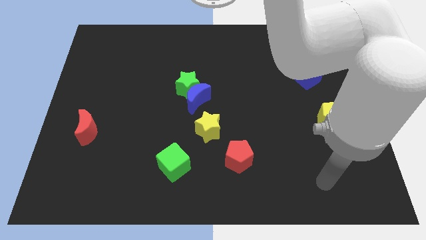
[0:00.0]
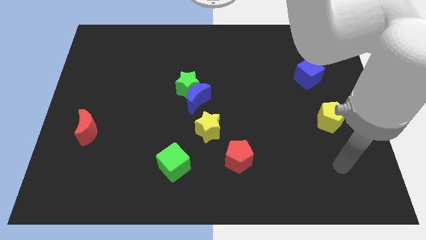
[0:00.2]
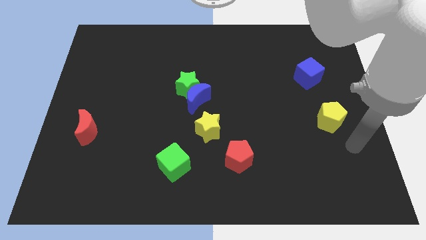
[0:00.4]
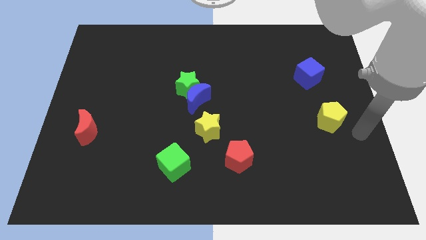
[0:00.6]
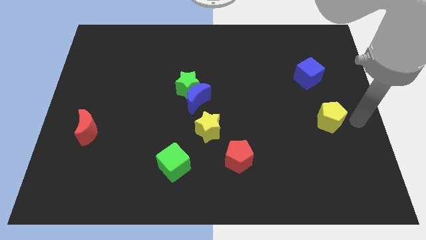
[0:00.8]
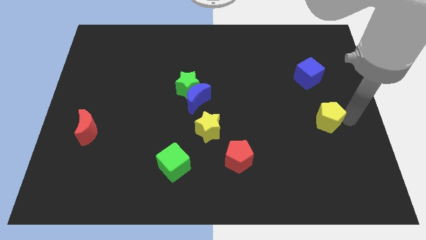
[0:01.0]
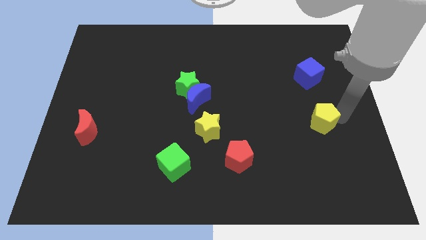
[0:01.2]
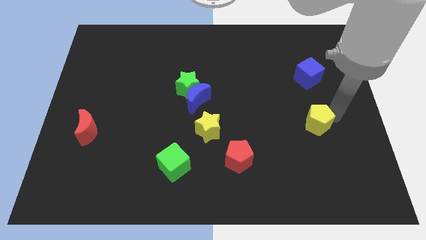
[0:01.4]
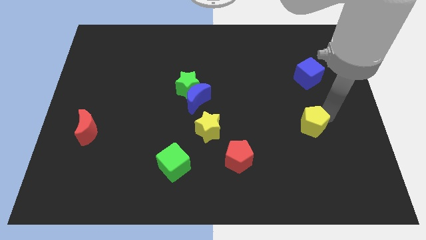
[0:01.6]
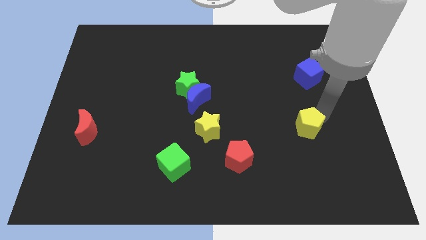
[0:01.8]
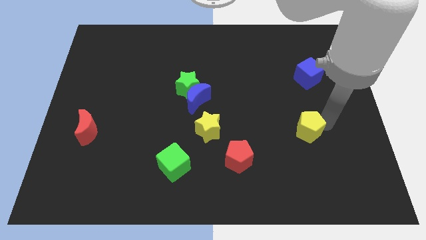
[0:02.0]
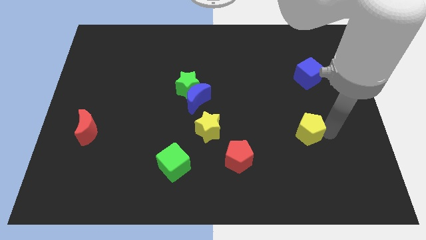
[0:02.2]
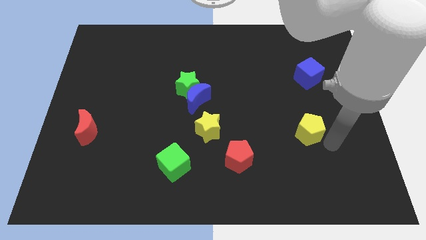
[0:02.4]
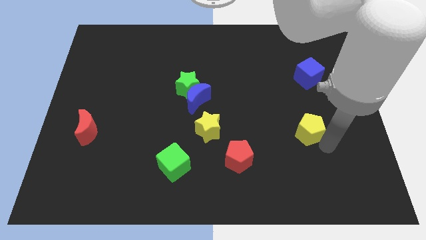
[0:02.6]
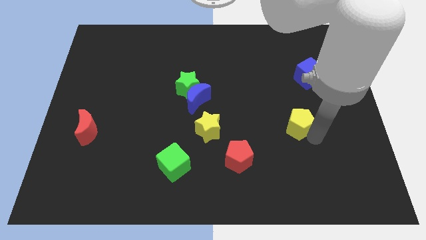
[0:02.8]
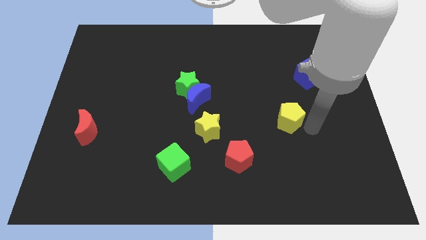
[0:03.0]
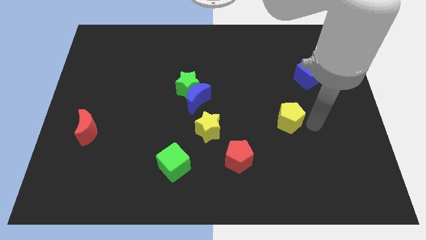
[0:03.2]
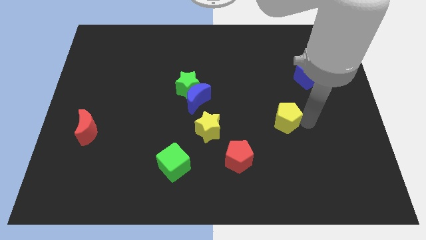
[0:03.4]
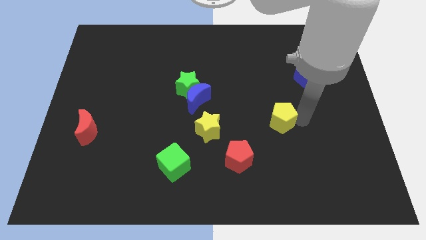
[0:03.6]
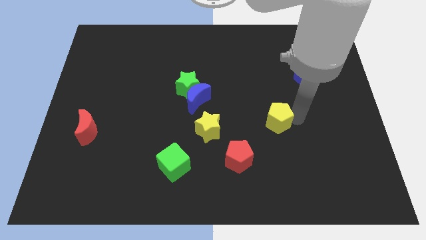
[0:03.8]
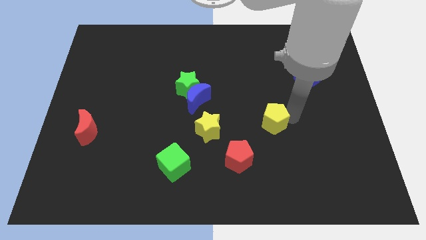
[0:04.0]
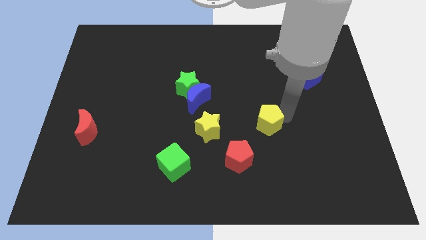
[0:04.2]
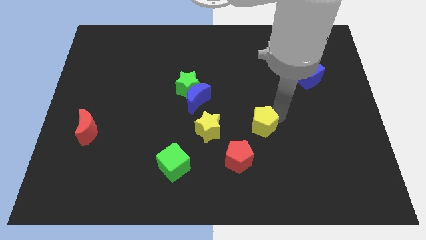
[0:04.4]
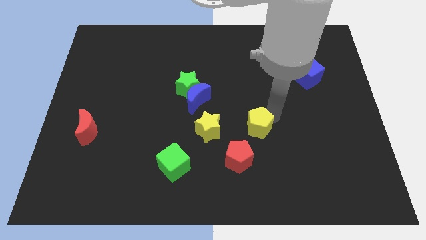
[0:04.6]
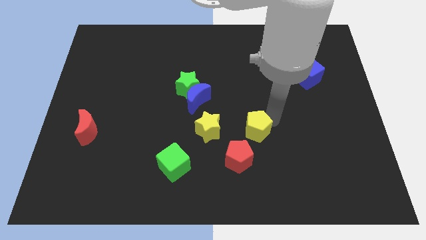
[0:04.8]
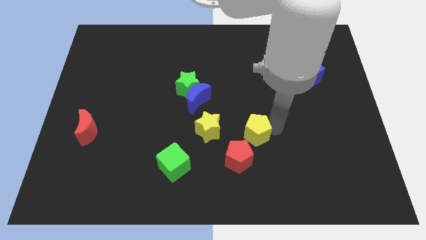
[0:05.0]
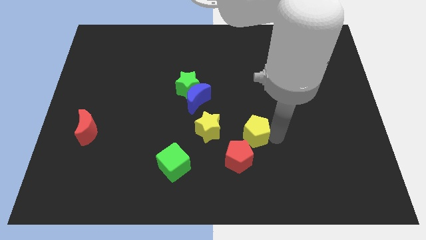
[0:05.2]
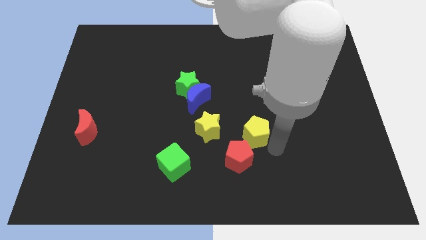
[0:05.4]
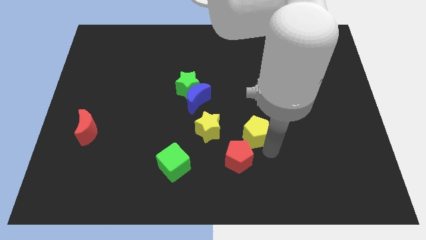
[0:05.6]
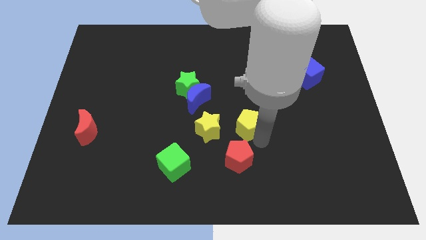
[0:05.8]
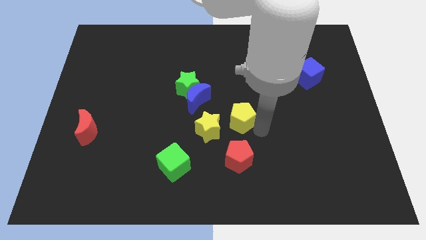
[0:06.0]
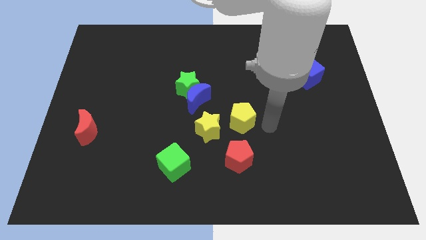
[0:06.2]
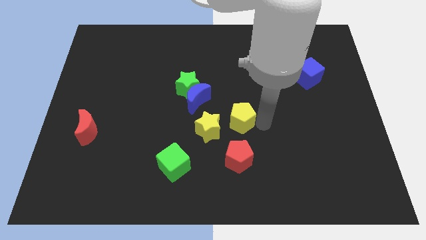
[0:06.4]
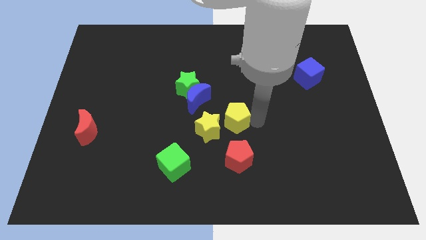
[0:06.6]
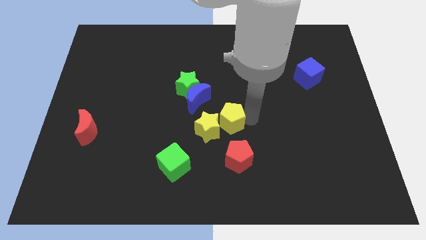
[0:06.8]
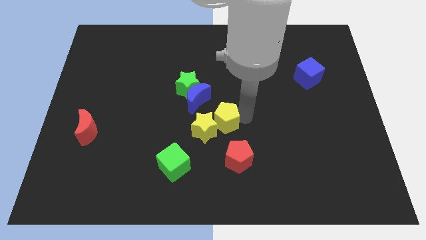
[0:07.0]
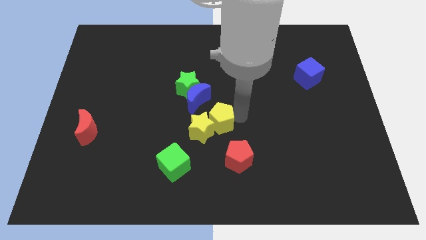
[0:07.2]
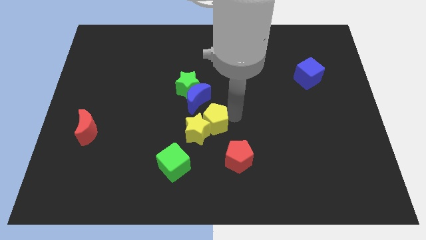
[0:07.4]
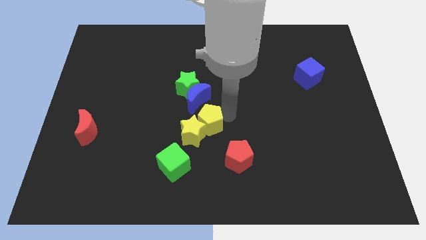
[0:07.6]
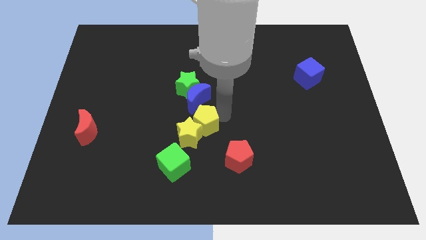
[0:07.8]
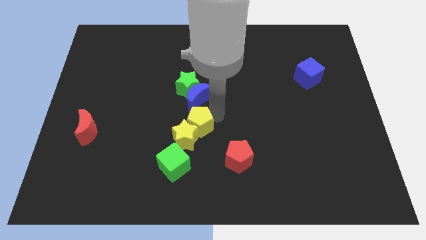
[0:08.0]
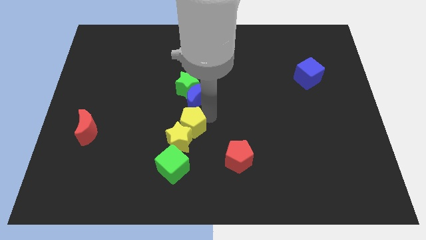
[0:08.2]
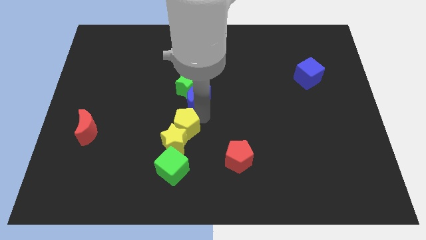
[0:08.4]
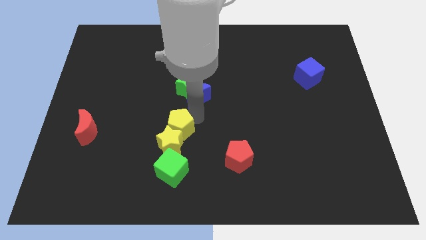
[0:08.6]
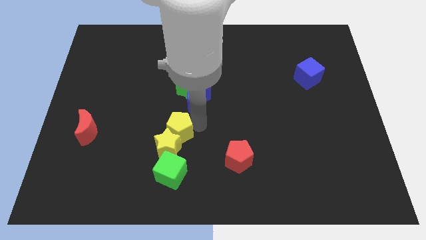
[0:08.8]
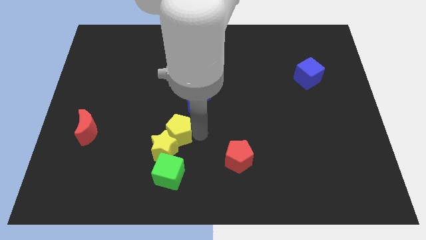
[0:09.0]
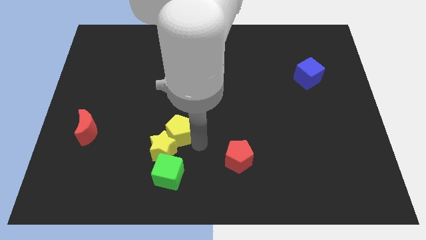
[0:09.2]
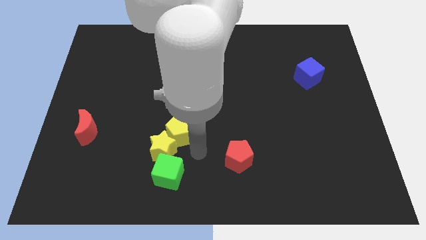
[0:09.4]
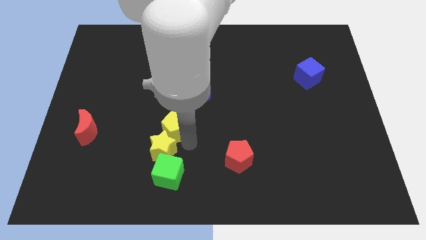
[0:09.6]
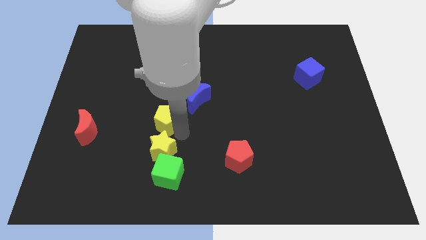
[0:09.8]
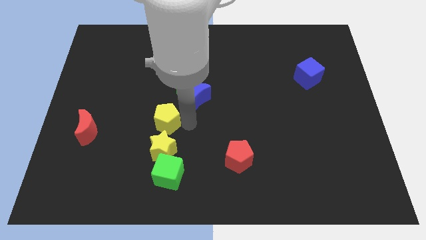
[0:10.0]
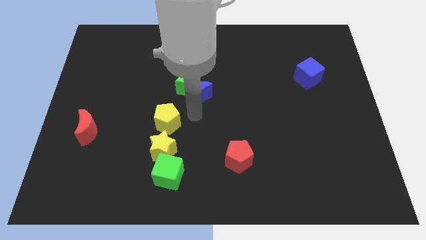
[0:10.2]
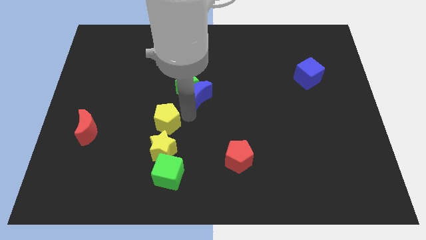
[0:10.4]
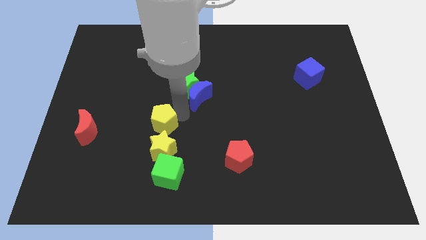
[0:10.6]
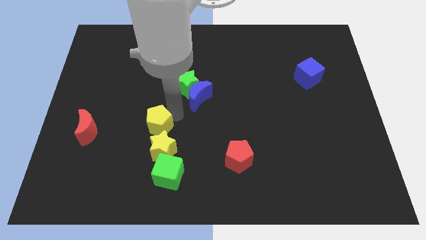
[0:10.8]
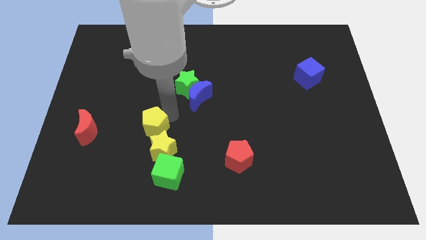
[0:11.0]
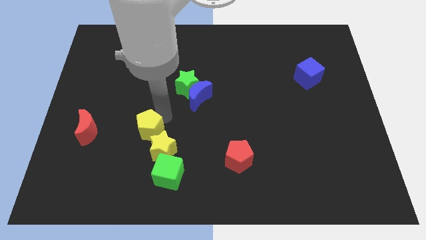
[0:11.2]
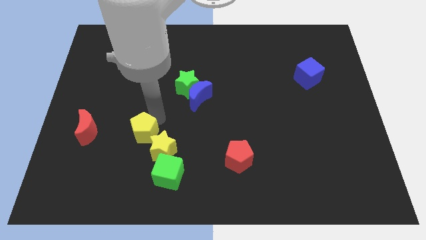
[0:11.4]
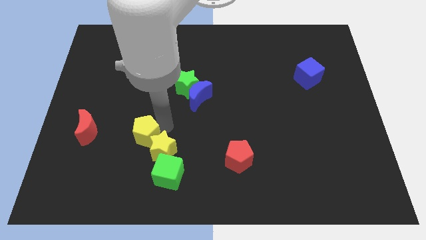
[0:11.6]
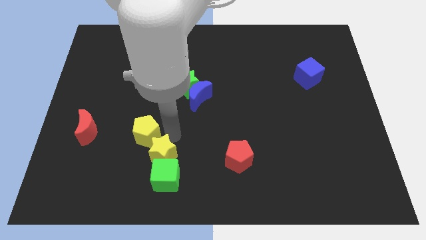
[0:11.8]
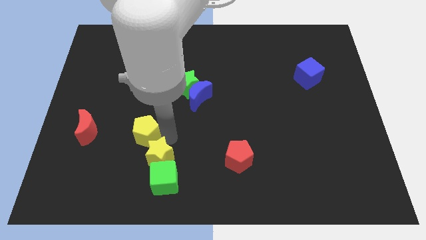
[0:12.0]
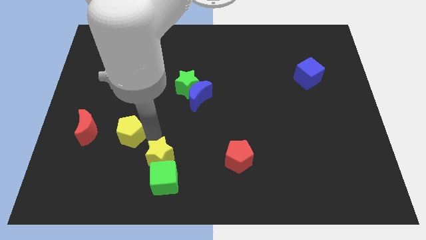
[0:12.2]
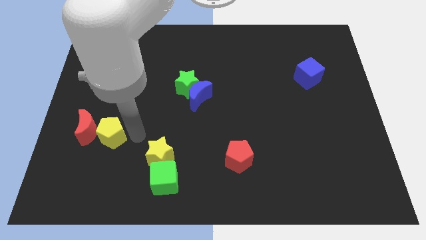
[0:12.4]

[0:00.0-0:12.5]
push the yellow pentagon to the red moon
